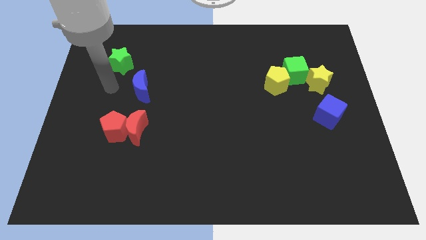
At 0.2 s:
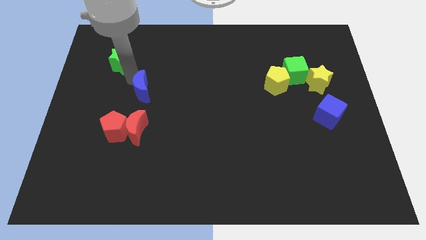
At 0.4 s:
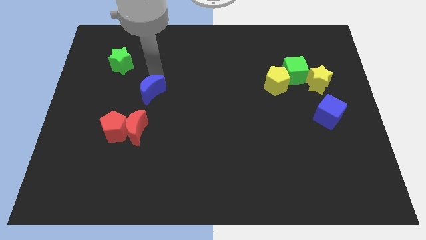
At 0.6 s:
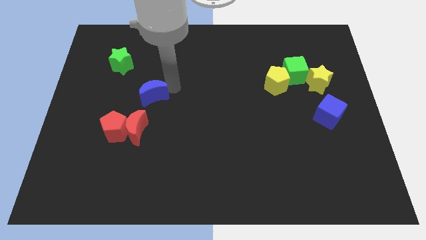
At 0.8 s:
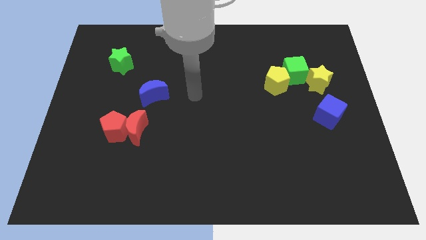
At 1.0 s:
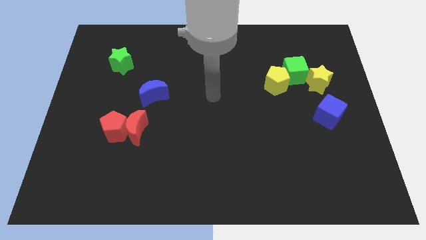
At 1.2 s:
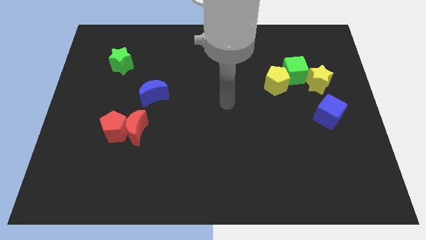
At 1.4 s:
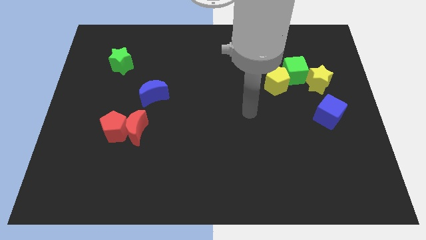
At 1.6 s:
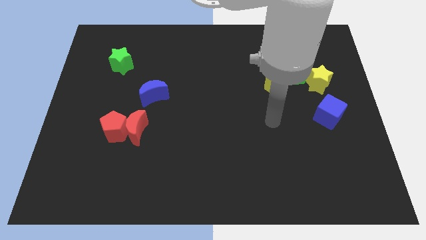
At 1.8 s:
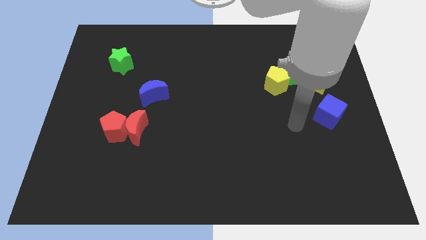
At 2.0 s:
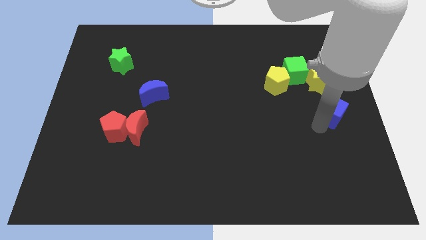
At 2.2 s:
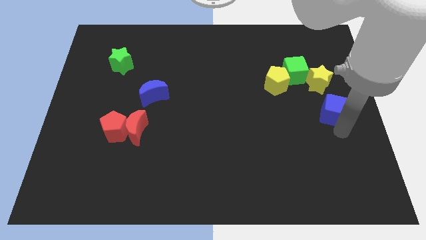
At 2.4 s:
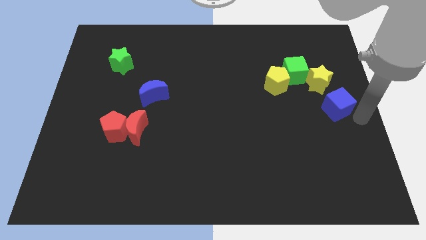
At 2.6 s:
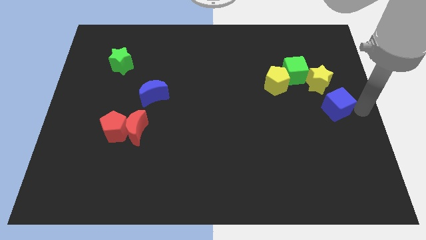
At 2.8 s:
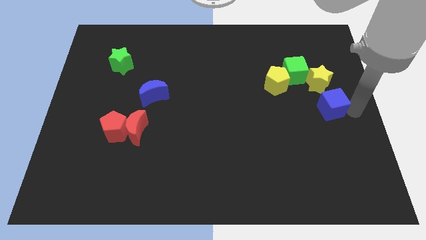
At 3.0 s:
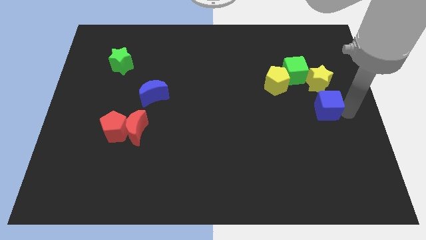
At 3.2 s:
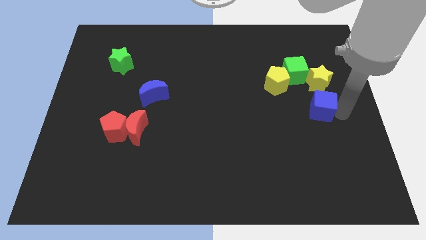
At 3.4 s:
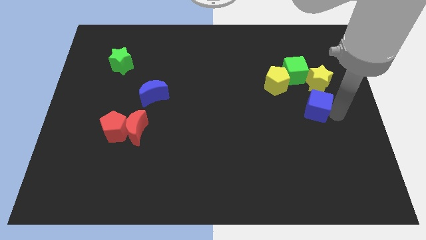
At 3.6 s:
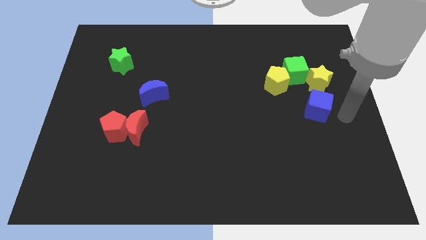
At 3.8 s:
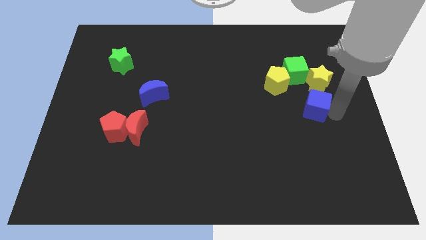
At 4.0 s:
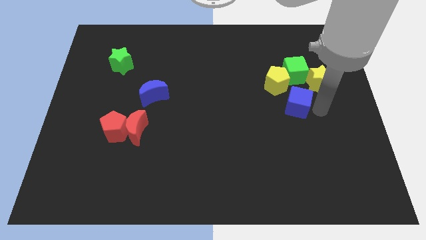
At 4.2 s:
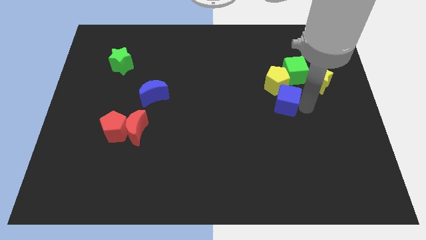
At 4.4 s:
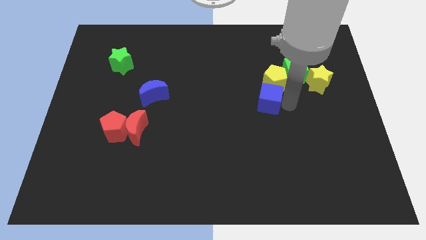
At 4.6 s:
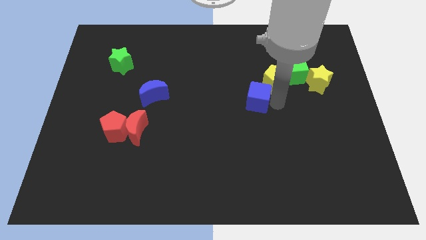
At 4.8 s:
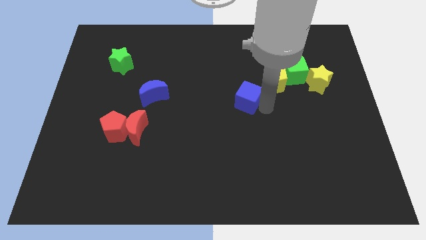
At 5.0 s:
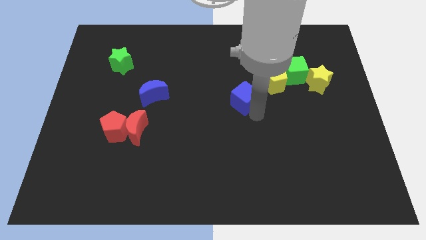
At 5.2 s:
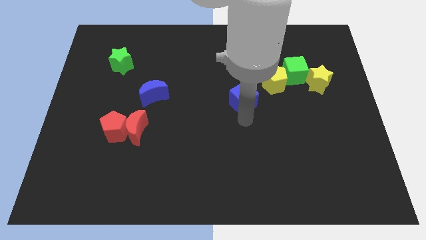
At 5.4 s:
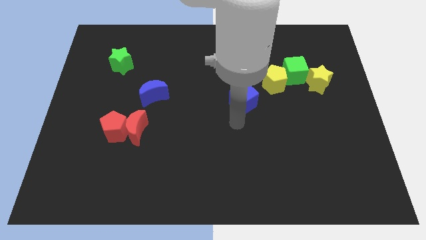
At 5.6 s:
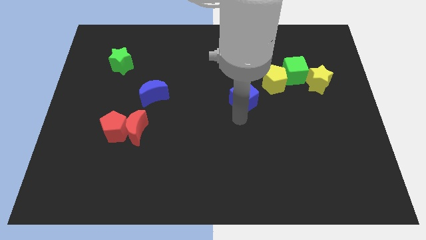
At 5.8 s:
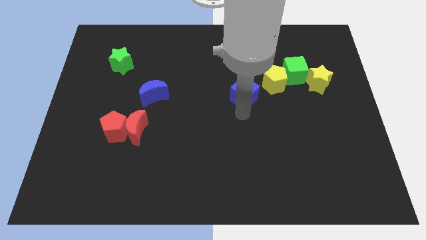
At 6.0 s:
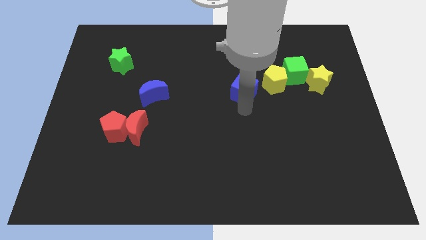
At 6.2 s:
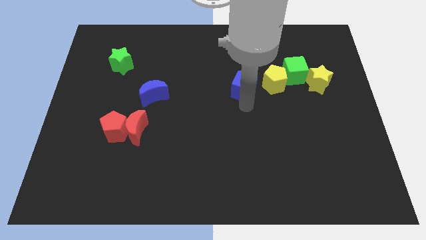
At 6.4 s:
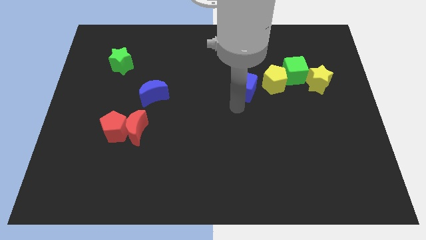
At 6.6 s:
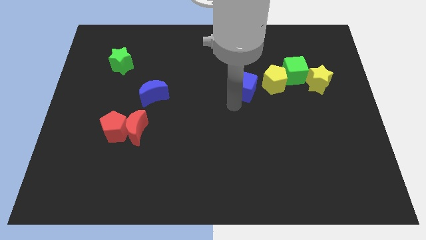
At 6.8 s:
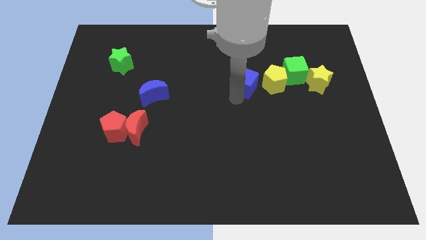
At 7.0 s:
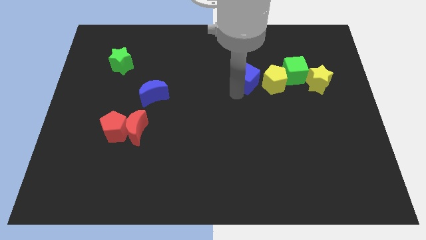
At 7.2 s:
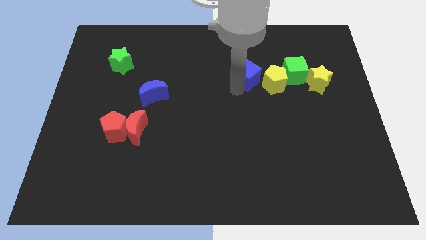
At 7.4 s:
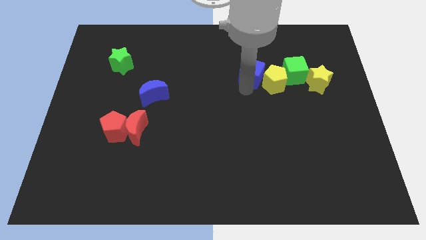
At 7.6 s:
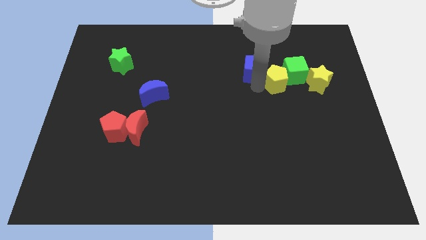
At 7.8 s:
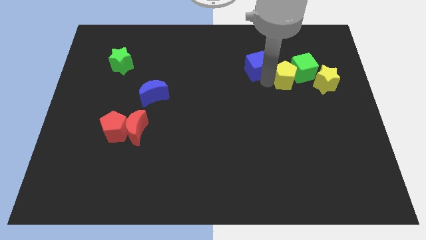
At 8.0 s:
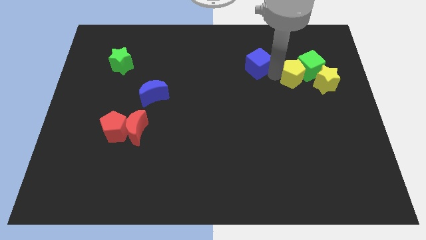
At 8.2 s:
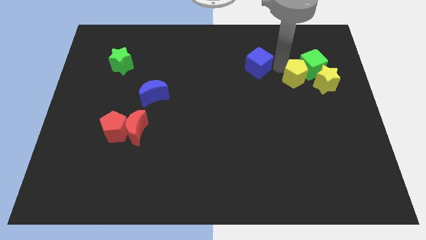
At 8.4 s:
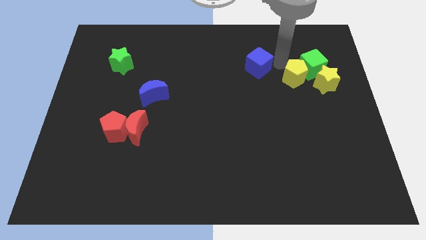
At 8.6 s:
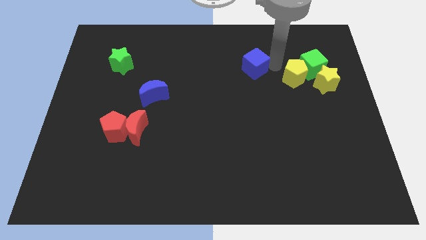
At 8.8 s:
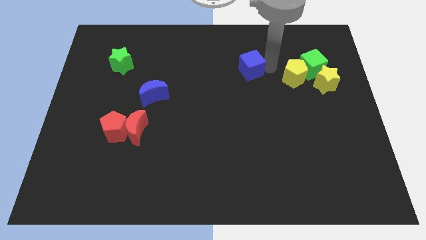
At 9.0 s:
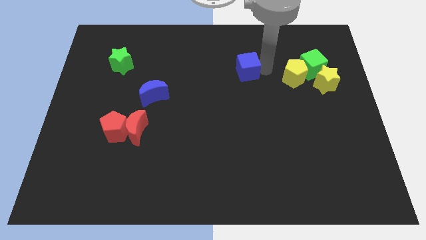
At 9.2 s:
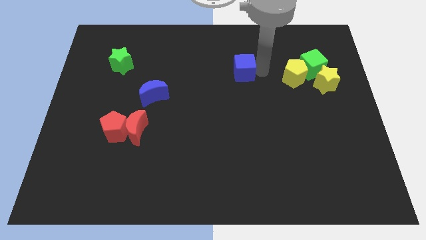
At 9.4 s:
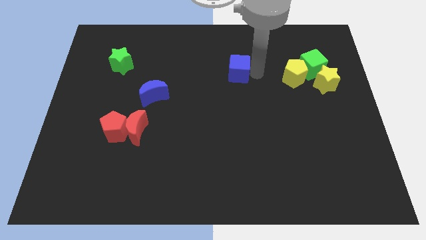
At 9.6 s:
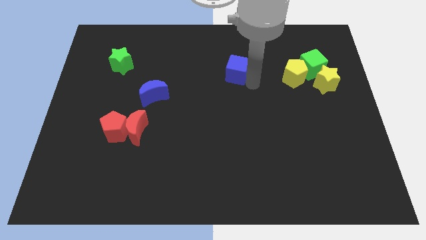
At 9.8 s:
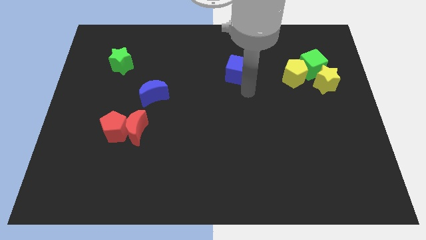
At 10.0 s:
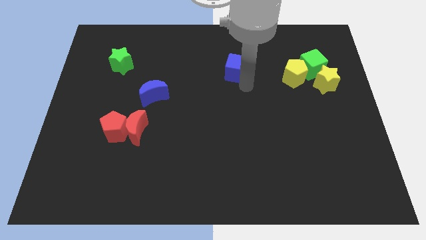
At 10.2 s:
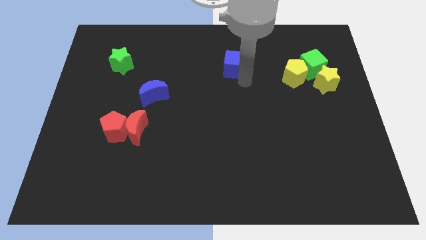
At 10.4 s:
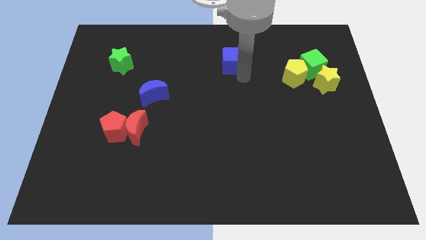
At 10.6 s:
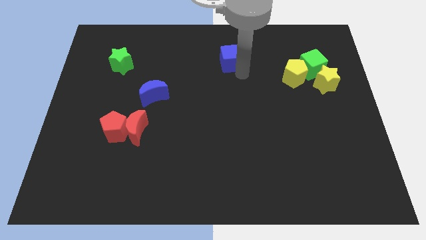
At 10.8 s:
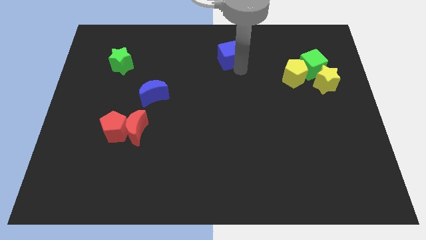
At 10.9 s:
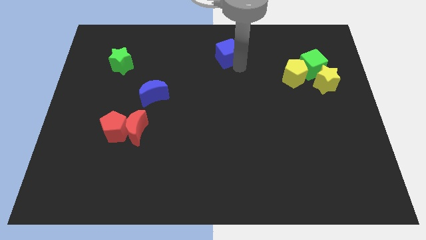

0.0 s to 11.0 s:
push the blue cube to the top
